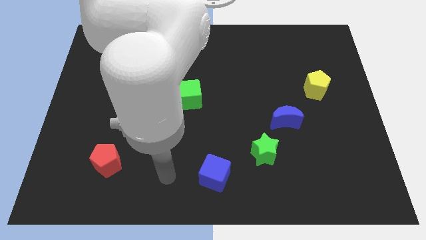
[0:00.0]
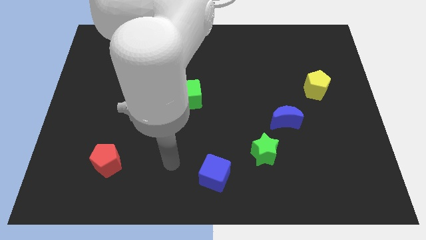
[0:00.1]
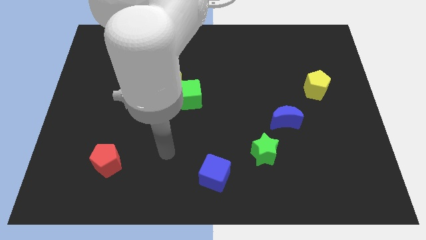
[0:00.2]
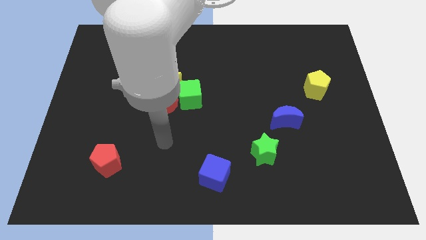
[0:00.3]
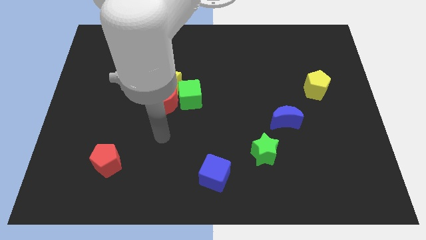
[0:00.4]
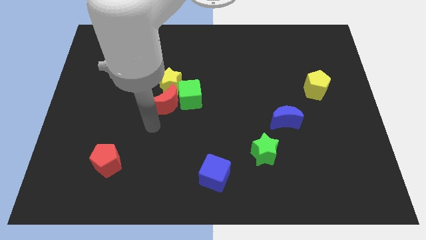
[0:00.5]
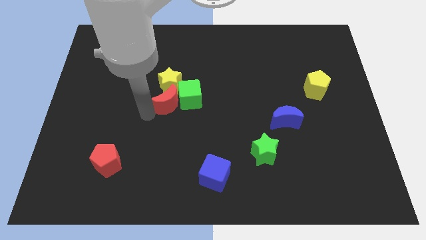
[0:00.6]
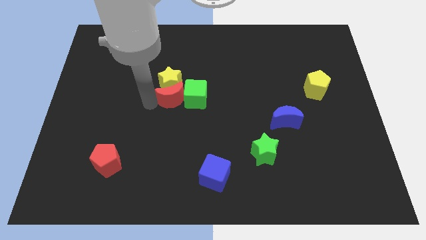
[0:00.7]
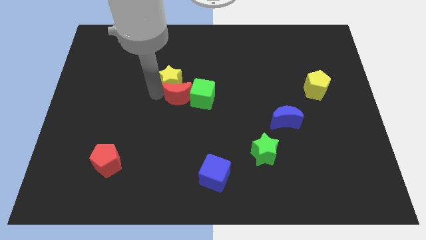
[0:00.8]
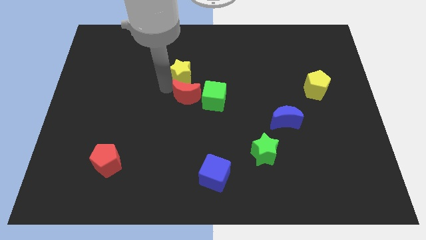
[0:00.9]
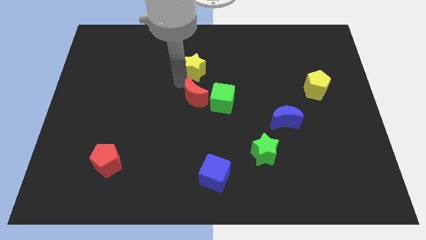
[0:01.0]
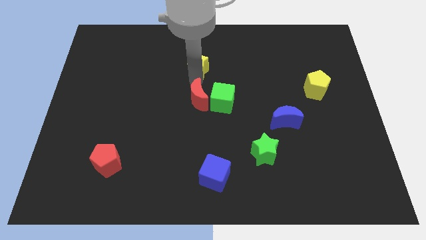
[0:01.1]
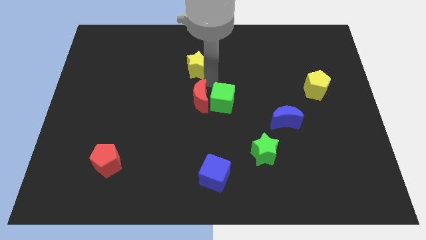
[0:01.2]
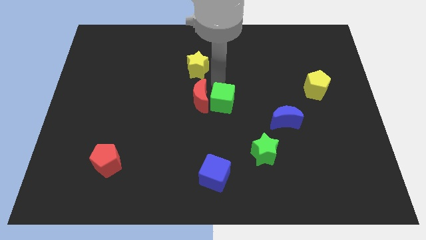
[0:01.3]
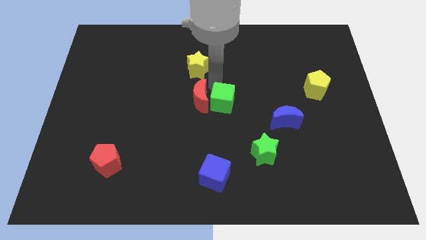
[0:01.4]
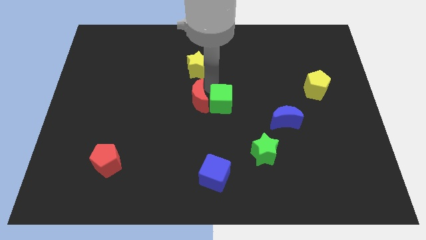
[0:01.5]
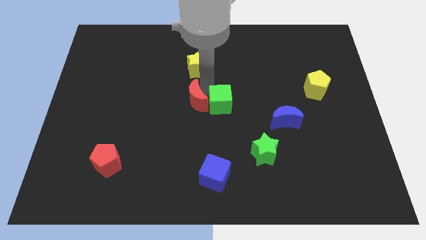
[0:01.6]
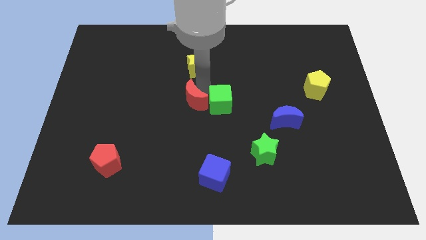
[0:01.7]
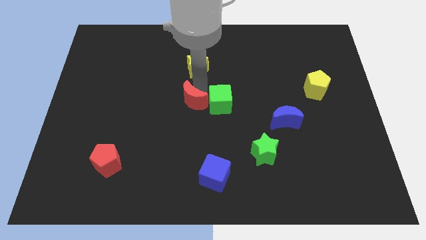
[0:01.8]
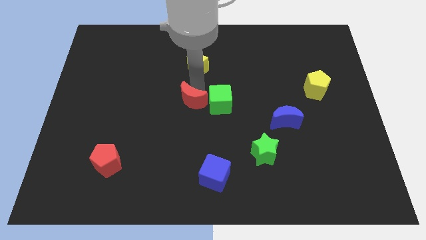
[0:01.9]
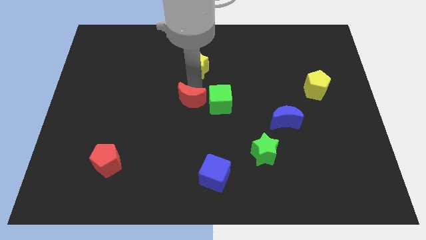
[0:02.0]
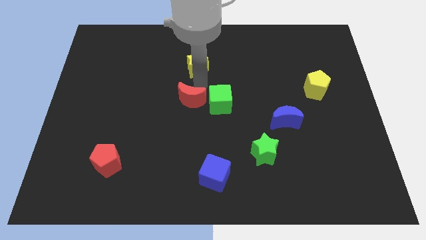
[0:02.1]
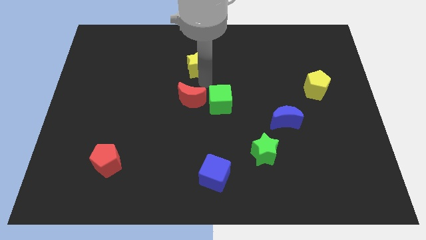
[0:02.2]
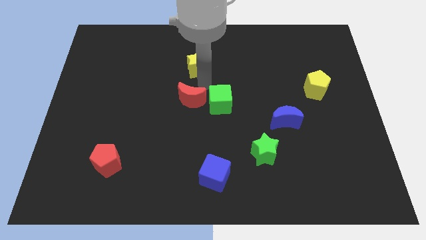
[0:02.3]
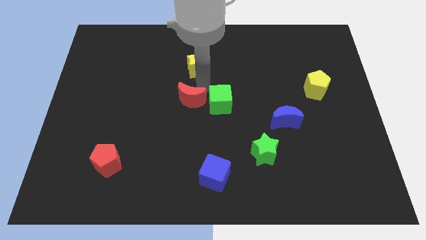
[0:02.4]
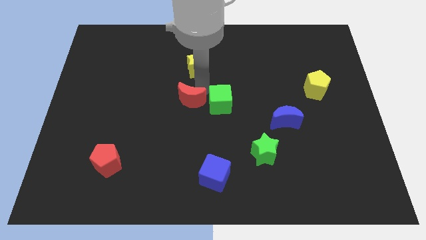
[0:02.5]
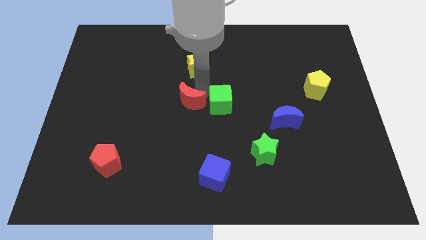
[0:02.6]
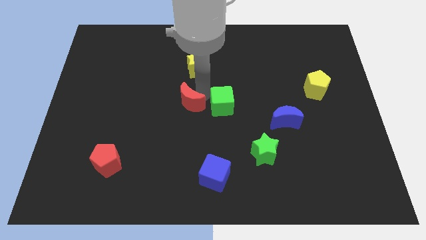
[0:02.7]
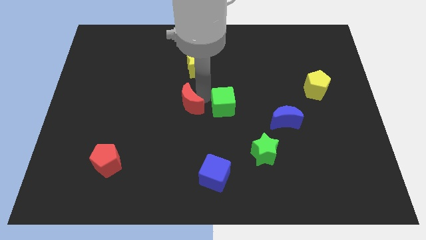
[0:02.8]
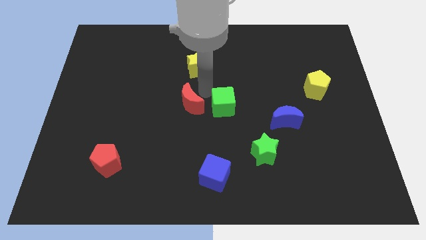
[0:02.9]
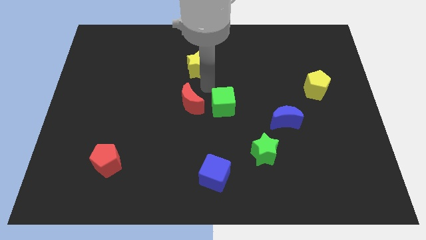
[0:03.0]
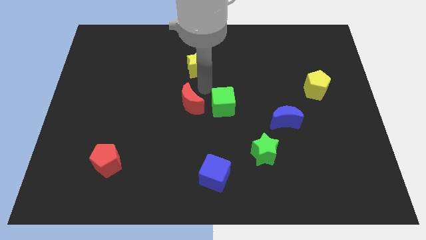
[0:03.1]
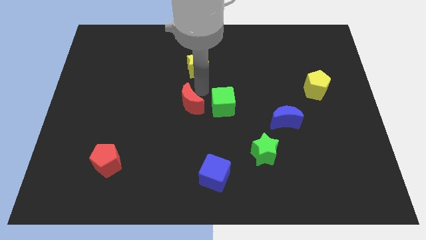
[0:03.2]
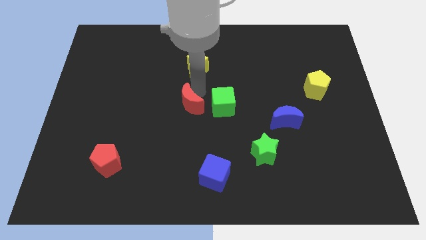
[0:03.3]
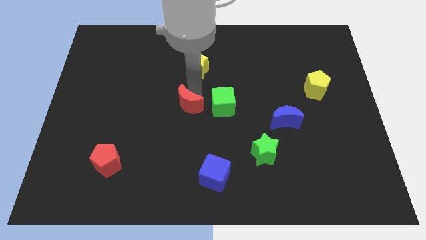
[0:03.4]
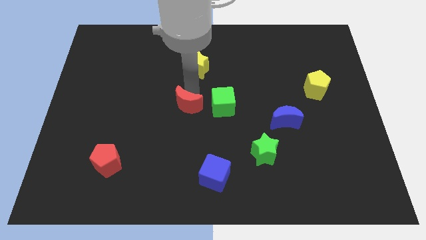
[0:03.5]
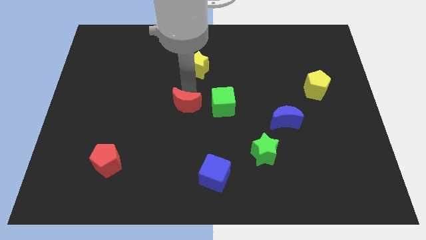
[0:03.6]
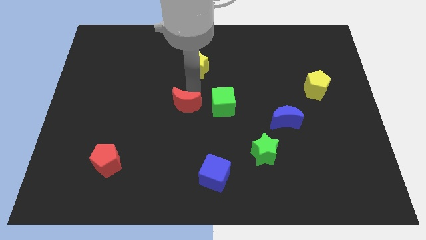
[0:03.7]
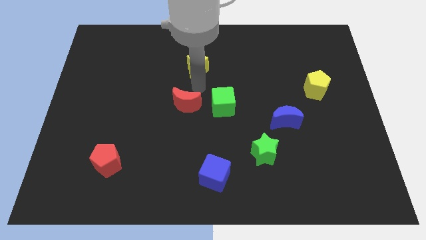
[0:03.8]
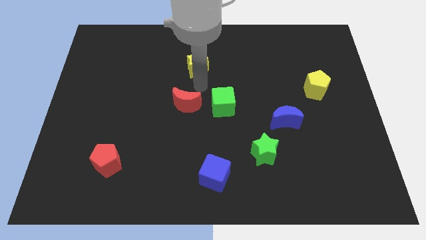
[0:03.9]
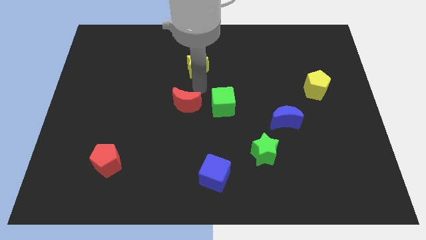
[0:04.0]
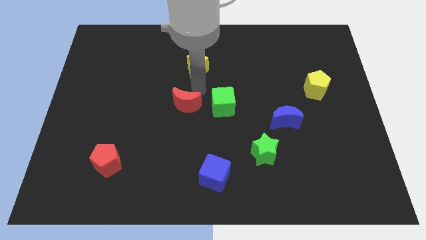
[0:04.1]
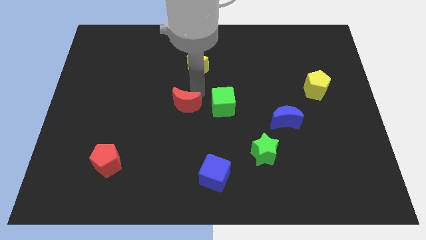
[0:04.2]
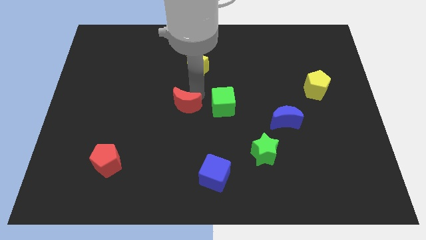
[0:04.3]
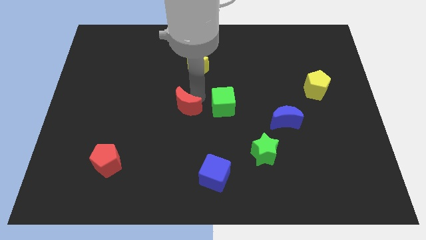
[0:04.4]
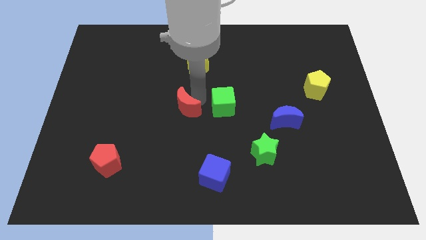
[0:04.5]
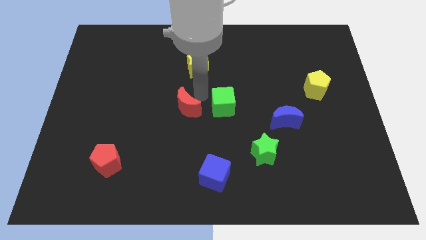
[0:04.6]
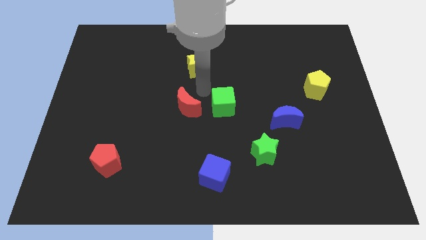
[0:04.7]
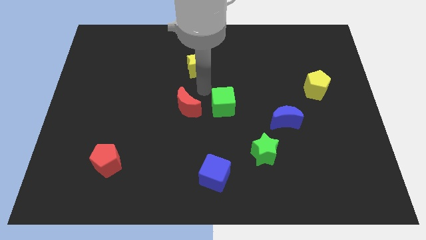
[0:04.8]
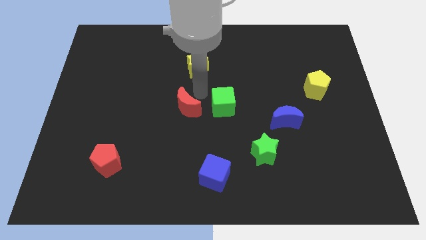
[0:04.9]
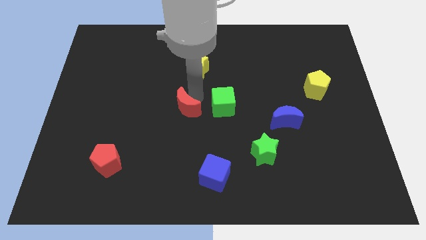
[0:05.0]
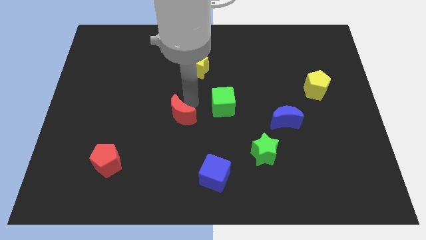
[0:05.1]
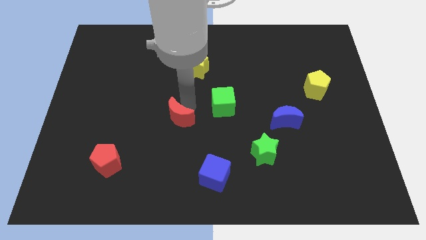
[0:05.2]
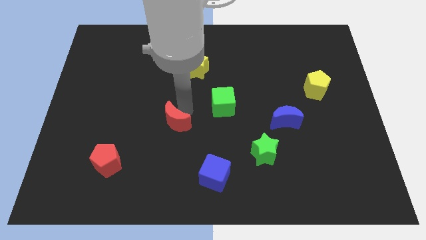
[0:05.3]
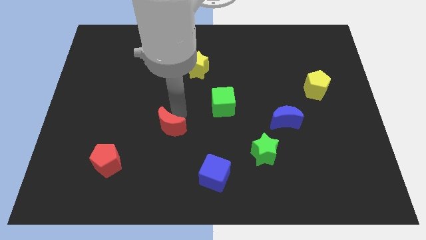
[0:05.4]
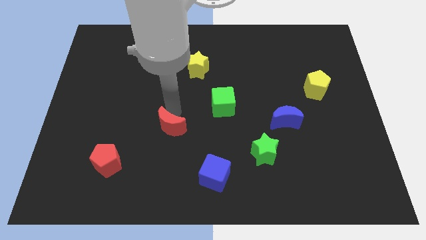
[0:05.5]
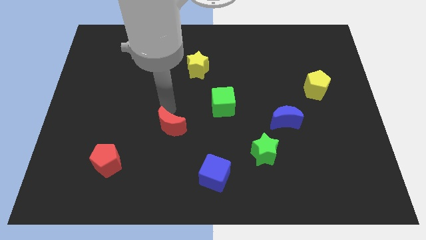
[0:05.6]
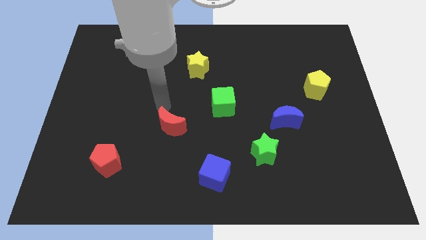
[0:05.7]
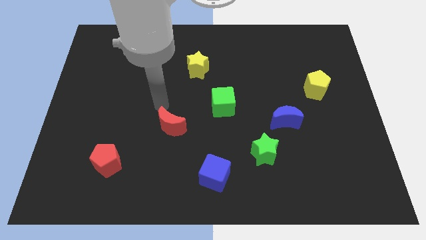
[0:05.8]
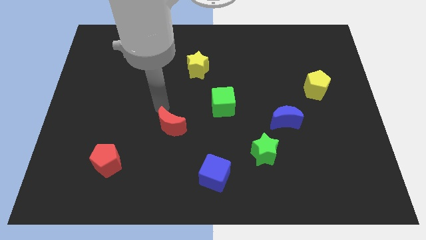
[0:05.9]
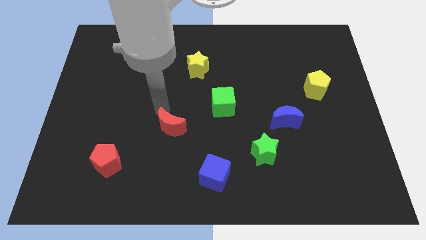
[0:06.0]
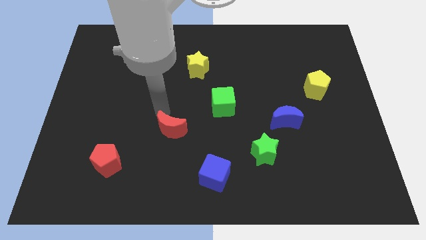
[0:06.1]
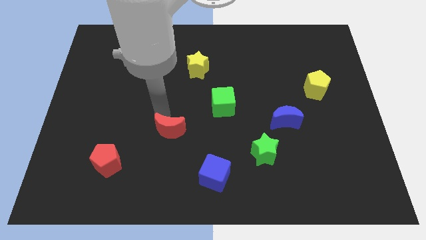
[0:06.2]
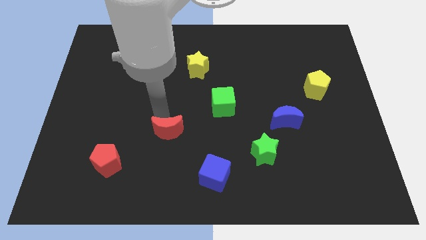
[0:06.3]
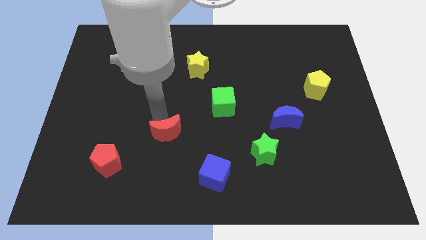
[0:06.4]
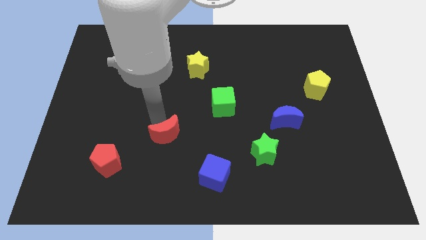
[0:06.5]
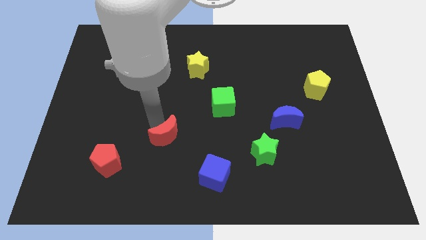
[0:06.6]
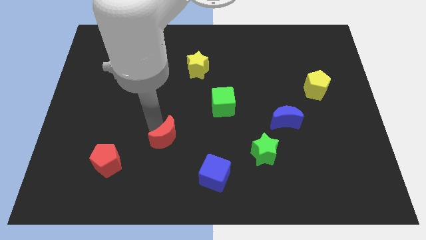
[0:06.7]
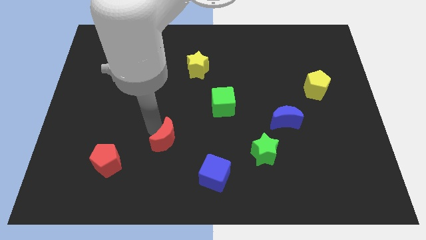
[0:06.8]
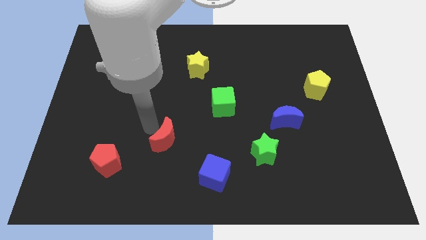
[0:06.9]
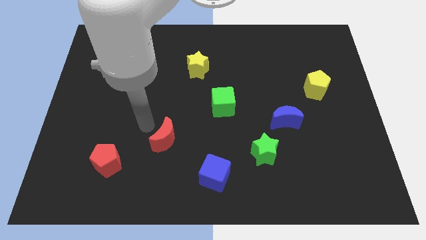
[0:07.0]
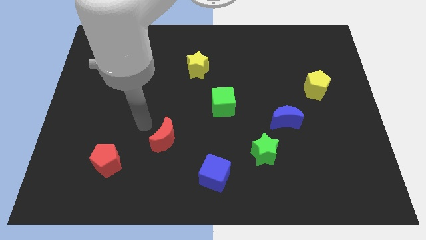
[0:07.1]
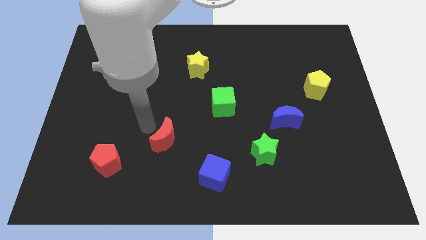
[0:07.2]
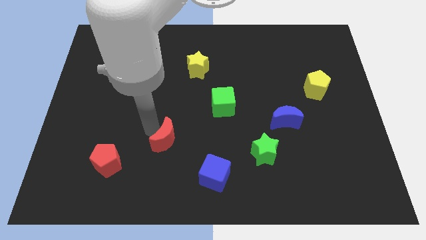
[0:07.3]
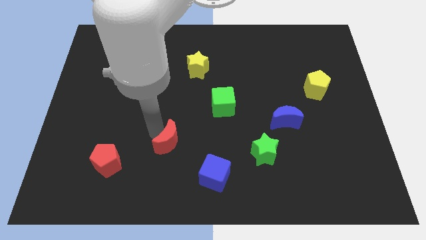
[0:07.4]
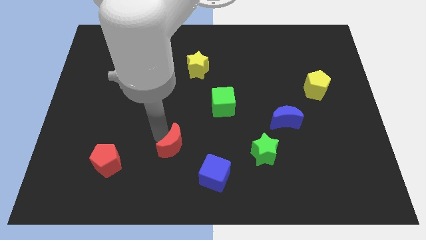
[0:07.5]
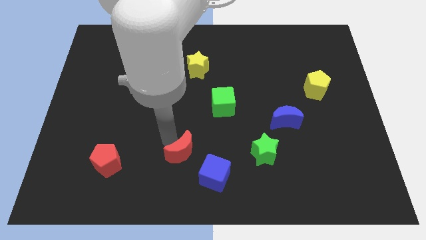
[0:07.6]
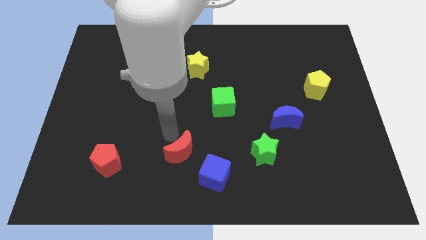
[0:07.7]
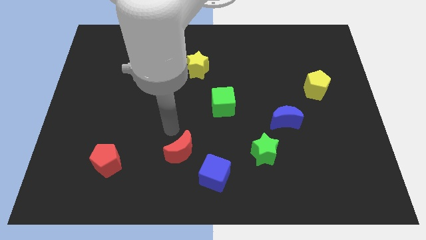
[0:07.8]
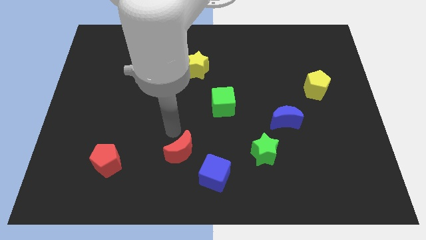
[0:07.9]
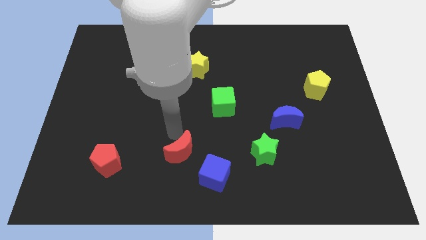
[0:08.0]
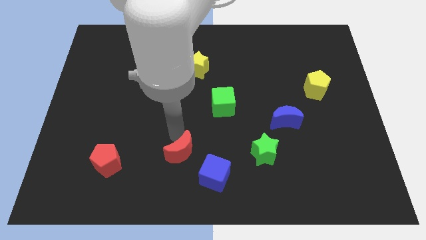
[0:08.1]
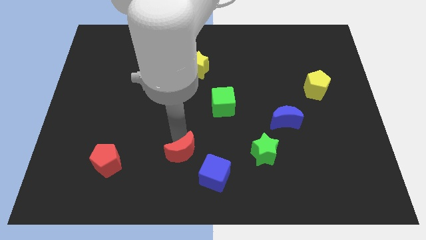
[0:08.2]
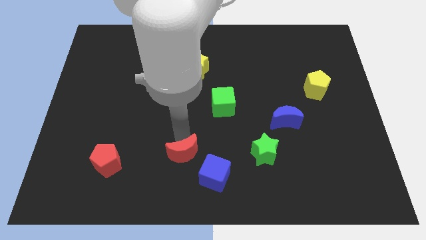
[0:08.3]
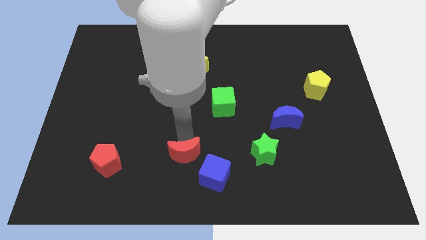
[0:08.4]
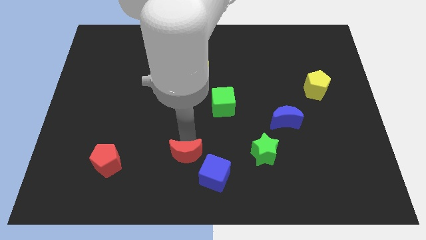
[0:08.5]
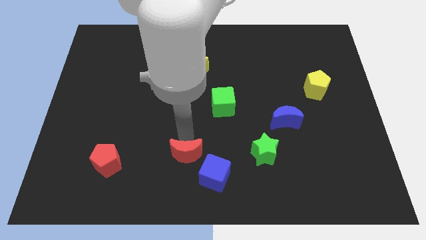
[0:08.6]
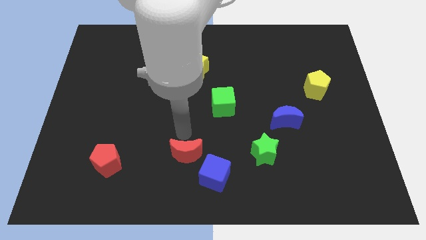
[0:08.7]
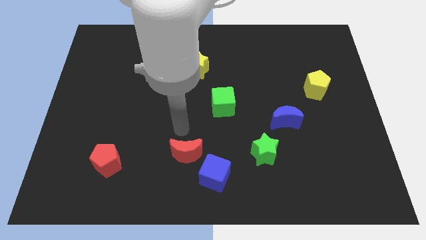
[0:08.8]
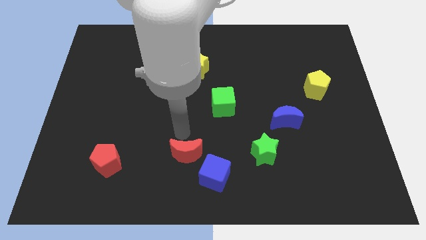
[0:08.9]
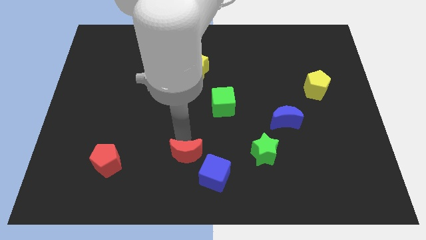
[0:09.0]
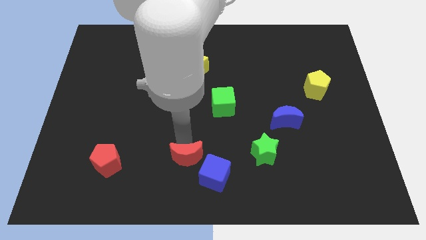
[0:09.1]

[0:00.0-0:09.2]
push the red moon to the bottom side
